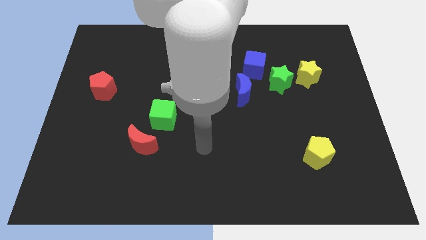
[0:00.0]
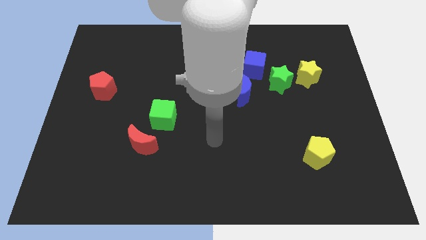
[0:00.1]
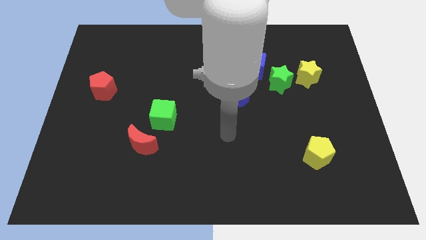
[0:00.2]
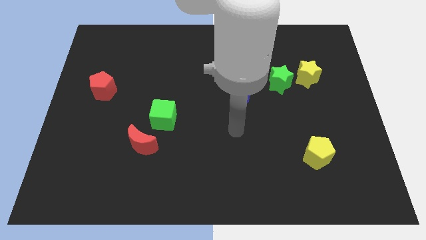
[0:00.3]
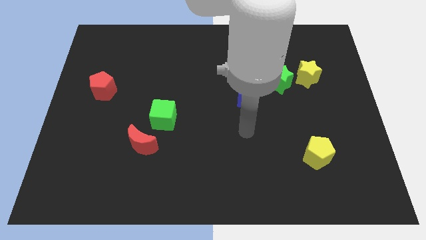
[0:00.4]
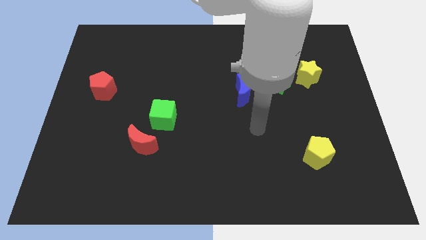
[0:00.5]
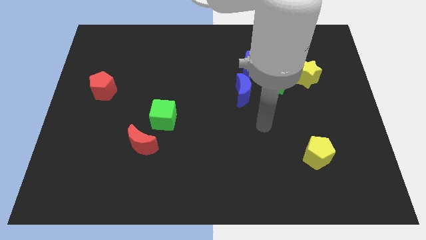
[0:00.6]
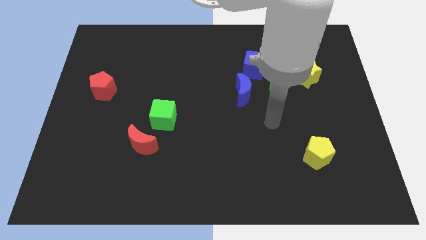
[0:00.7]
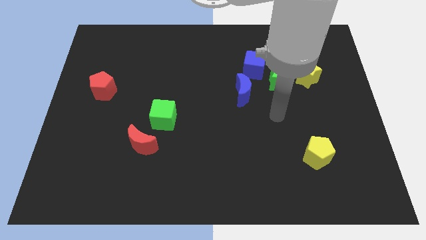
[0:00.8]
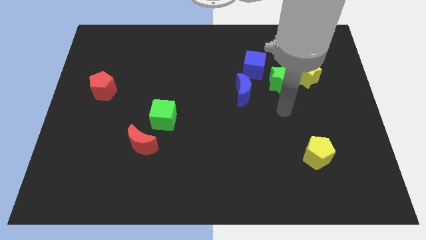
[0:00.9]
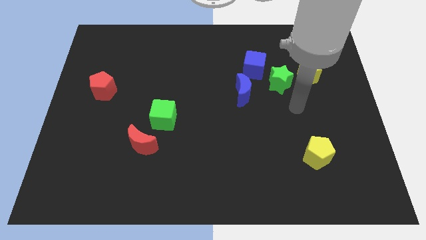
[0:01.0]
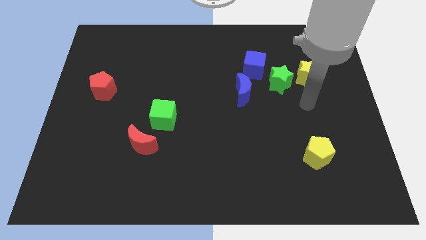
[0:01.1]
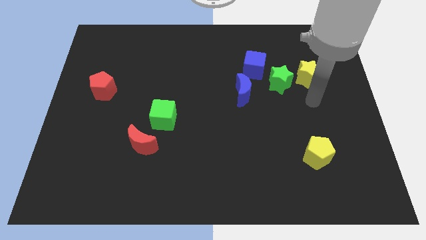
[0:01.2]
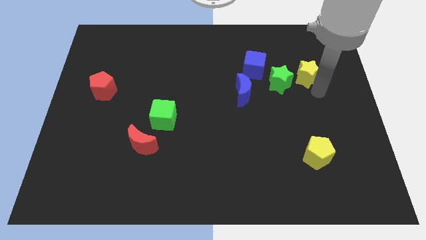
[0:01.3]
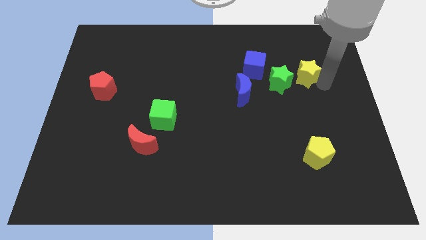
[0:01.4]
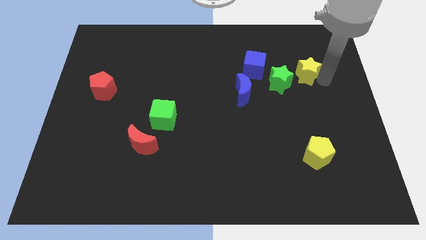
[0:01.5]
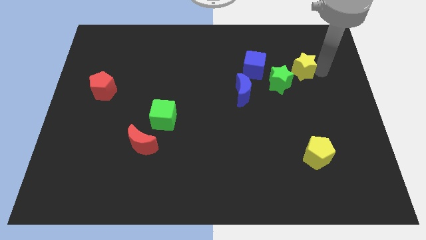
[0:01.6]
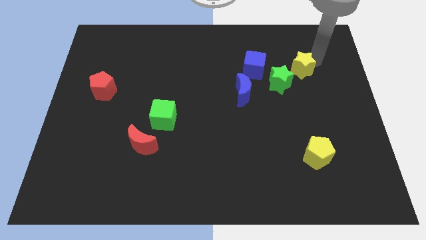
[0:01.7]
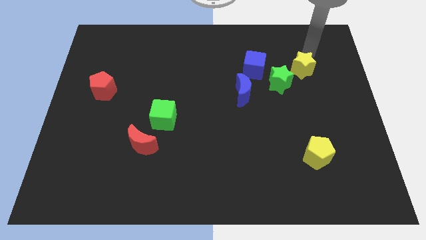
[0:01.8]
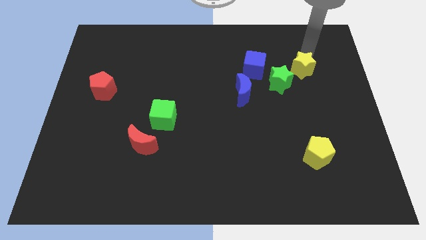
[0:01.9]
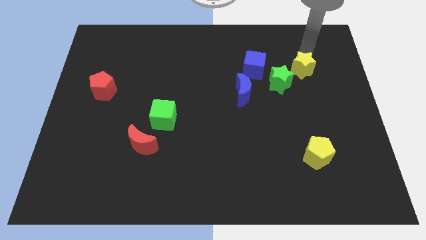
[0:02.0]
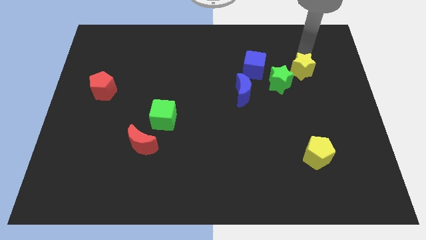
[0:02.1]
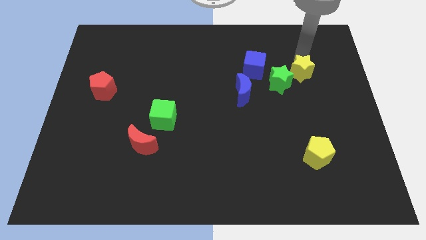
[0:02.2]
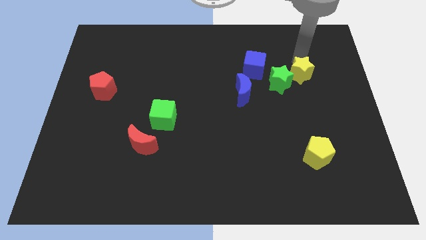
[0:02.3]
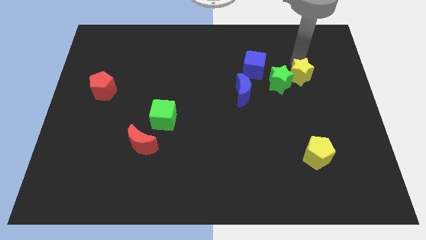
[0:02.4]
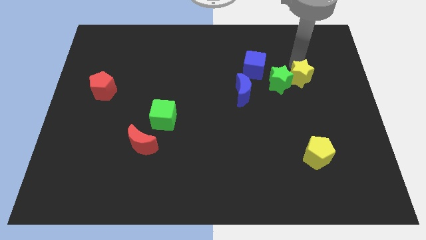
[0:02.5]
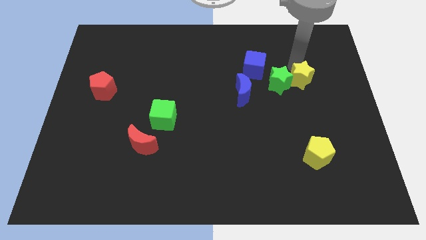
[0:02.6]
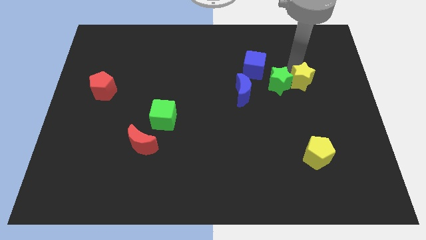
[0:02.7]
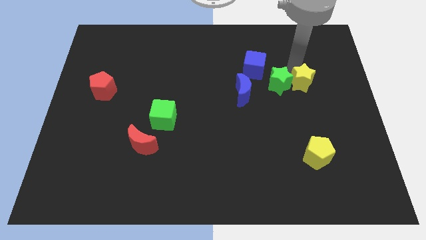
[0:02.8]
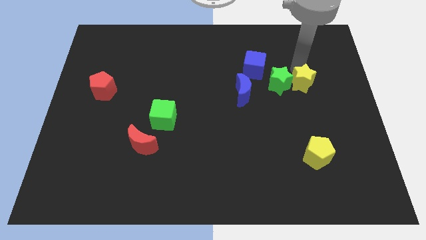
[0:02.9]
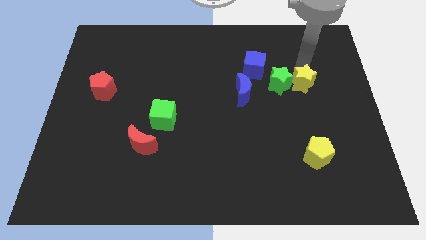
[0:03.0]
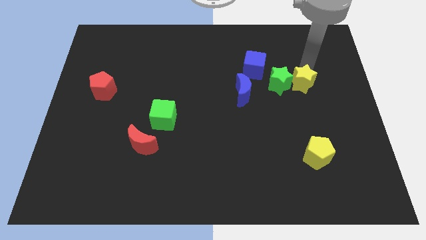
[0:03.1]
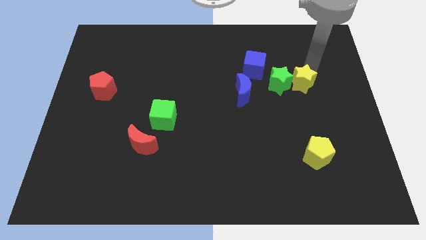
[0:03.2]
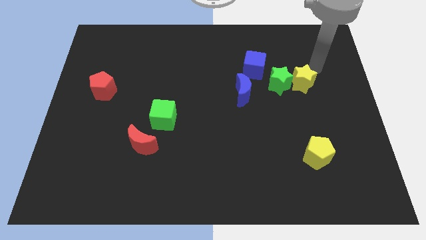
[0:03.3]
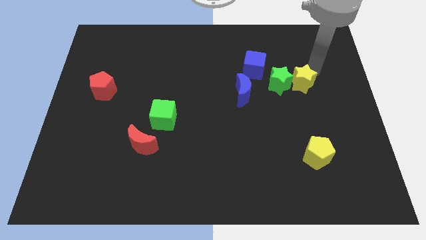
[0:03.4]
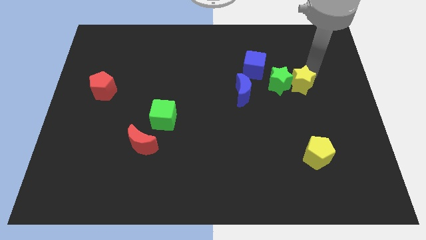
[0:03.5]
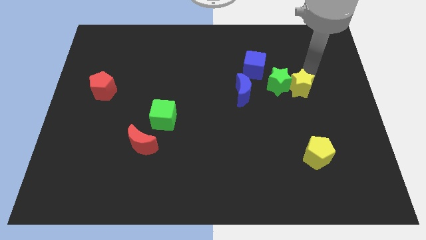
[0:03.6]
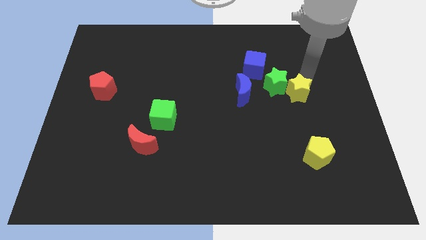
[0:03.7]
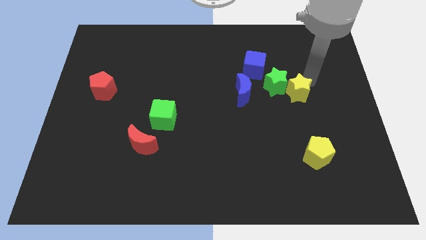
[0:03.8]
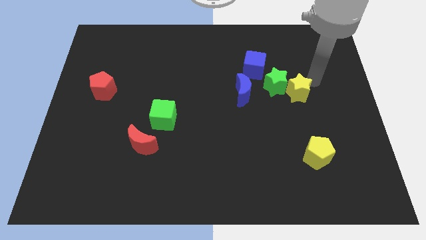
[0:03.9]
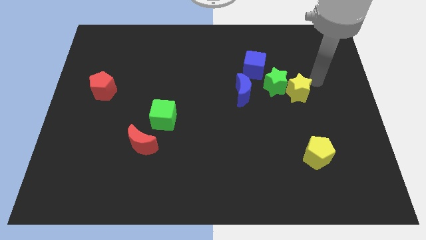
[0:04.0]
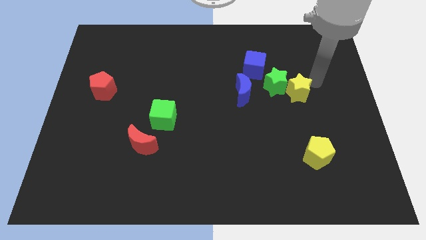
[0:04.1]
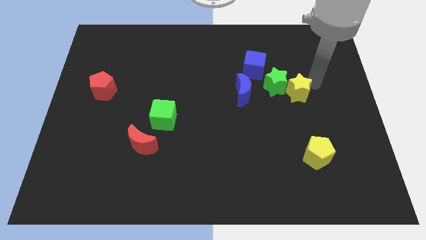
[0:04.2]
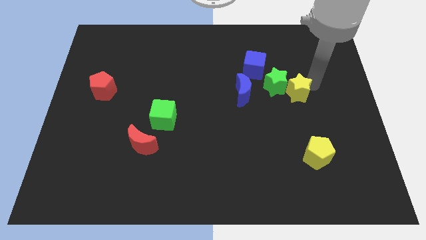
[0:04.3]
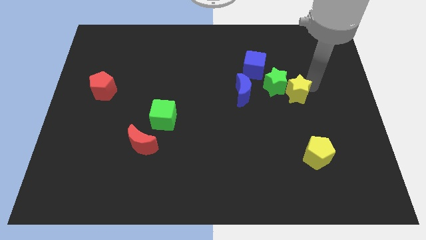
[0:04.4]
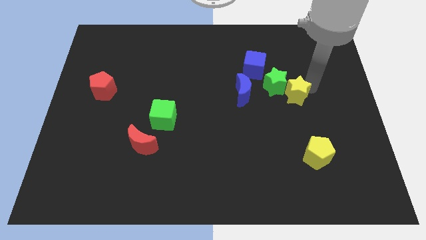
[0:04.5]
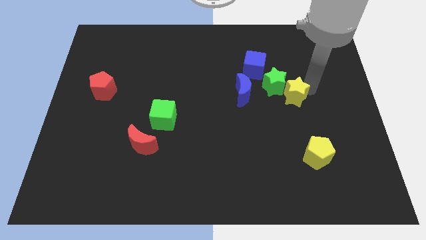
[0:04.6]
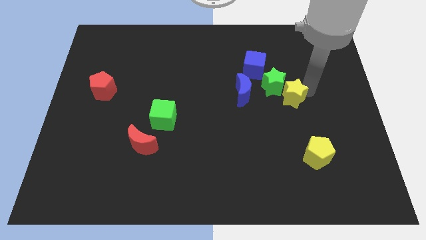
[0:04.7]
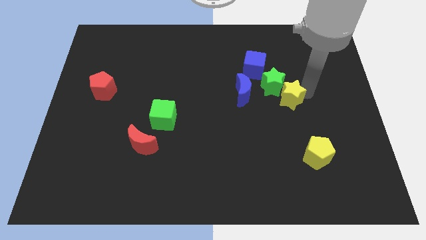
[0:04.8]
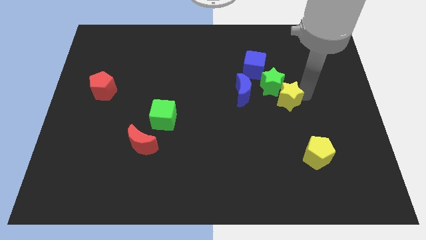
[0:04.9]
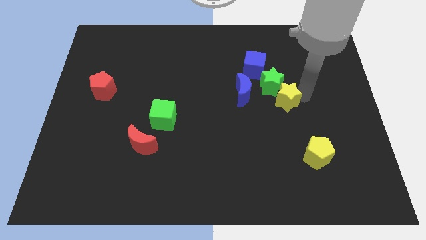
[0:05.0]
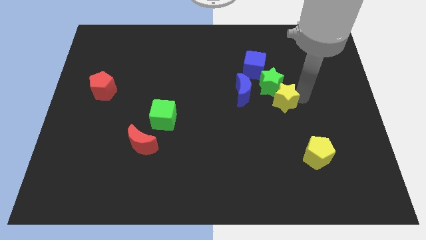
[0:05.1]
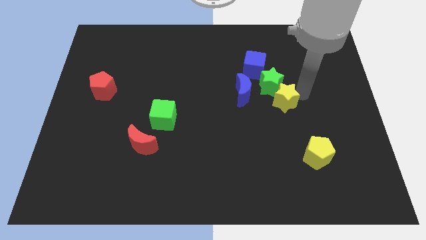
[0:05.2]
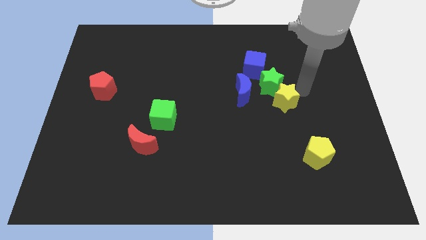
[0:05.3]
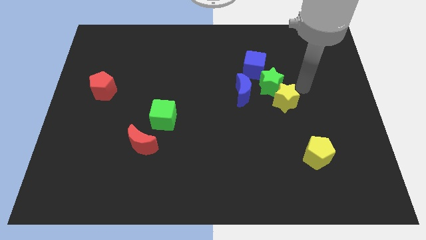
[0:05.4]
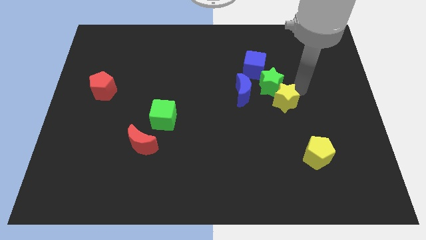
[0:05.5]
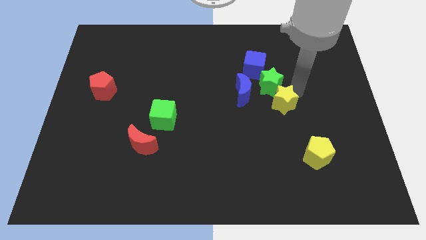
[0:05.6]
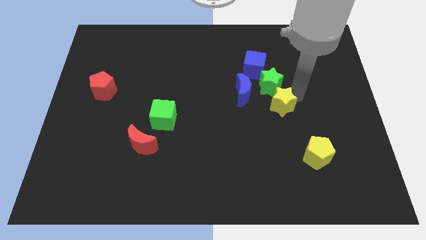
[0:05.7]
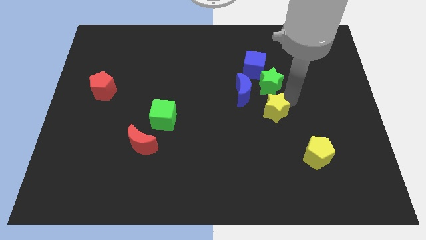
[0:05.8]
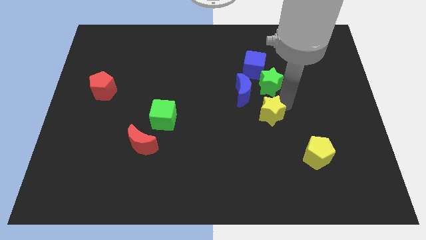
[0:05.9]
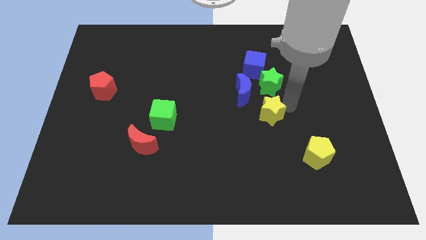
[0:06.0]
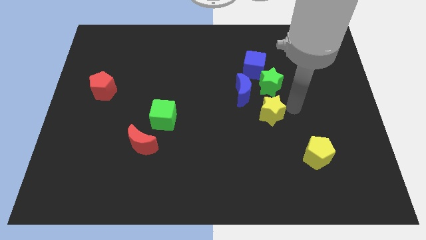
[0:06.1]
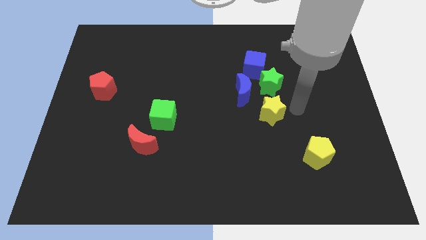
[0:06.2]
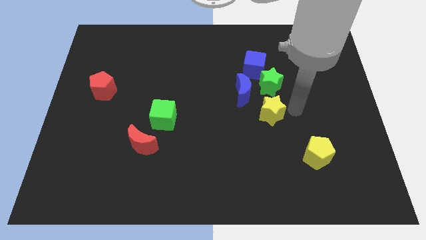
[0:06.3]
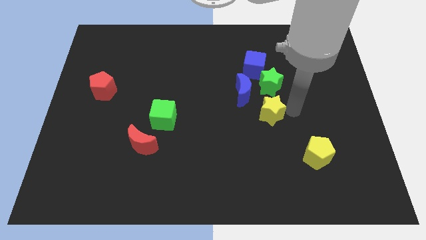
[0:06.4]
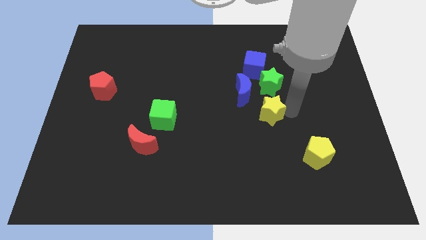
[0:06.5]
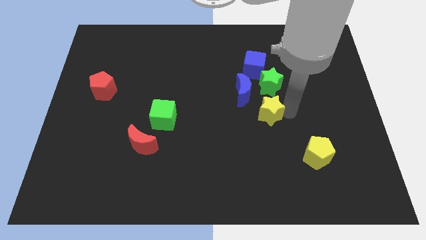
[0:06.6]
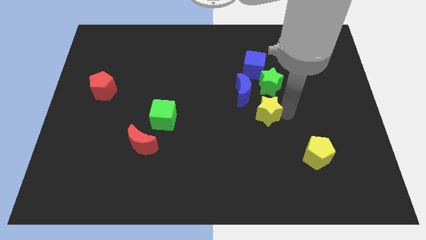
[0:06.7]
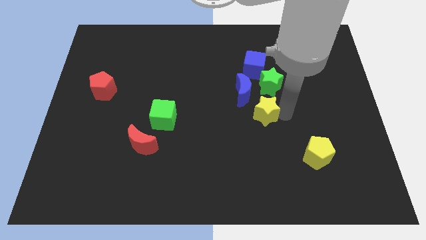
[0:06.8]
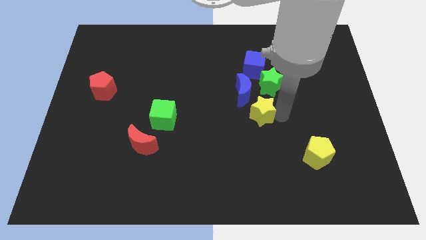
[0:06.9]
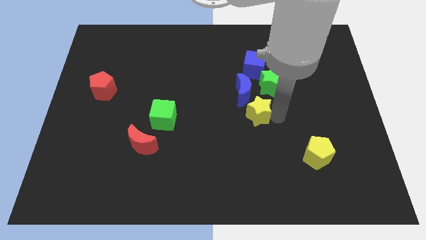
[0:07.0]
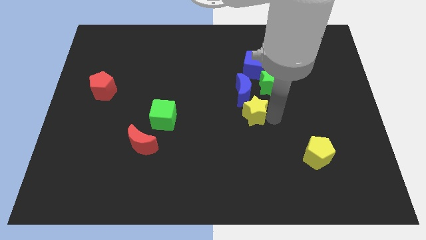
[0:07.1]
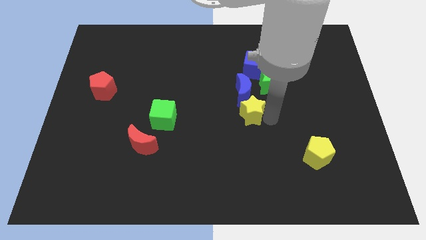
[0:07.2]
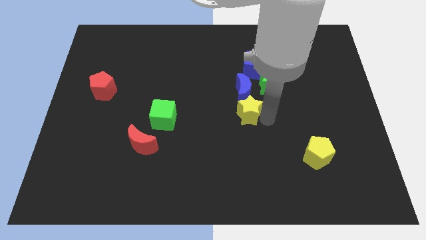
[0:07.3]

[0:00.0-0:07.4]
slide the yellow star diagonally down and to the left of the blue moon
